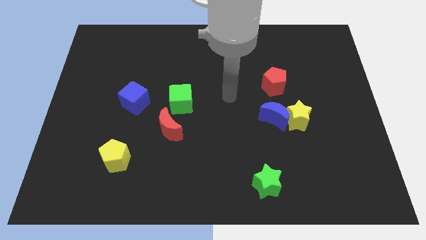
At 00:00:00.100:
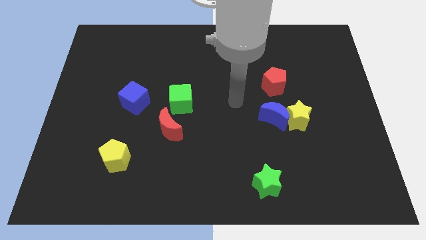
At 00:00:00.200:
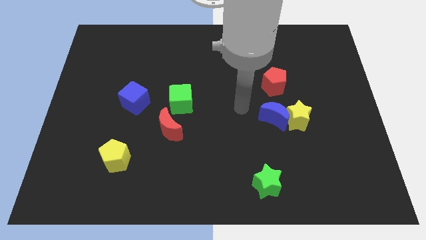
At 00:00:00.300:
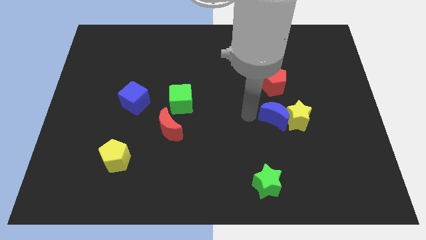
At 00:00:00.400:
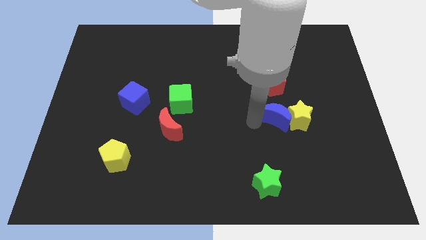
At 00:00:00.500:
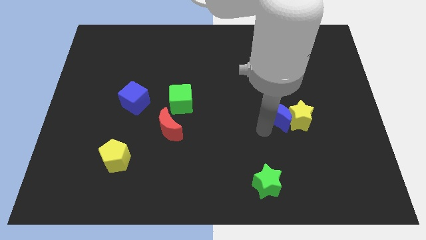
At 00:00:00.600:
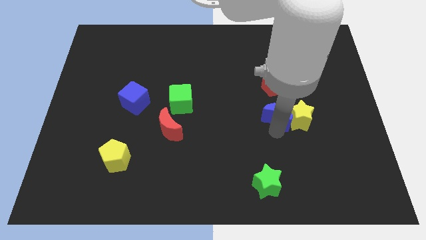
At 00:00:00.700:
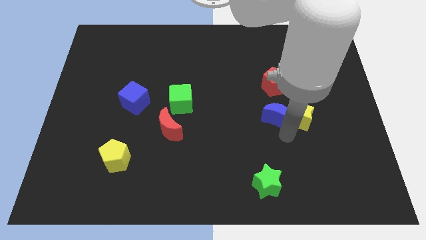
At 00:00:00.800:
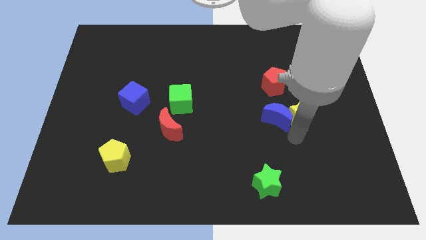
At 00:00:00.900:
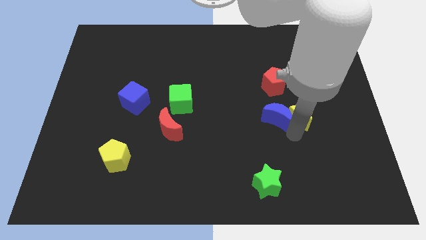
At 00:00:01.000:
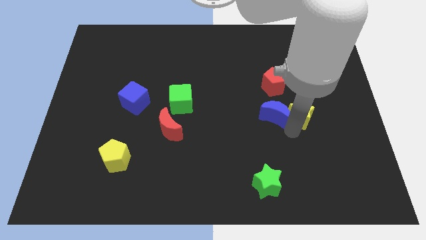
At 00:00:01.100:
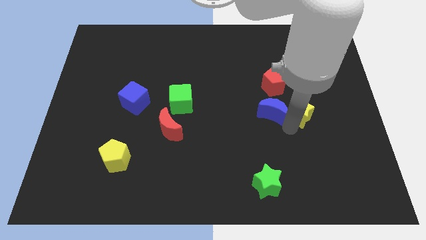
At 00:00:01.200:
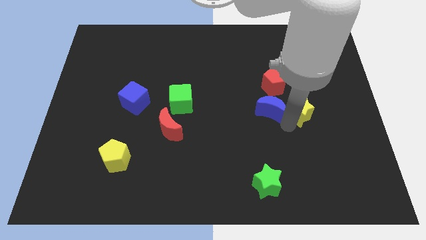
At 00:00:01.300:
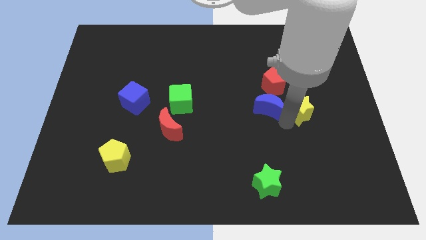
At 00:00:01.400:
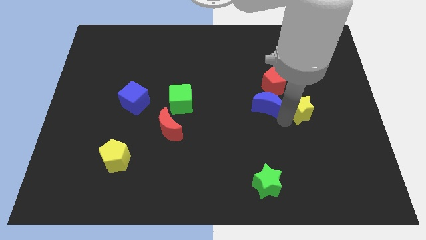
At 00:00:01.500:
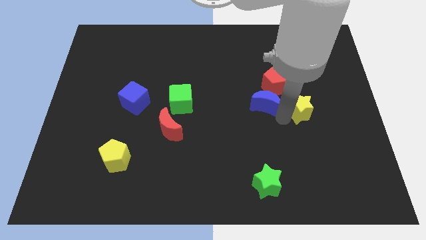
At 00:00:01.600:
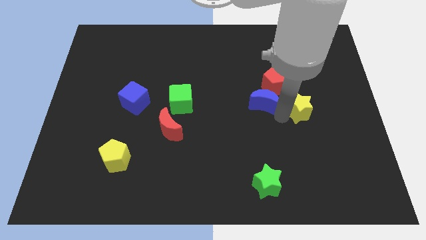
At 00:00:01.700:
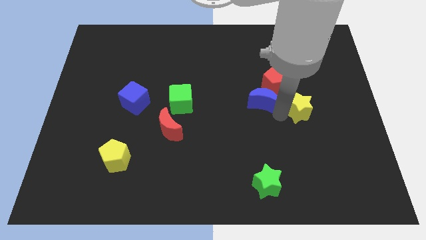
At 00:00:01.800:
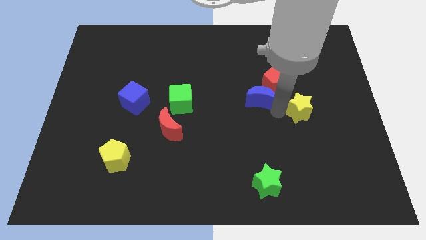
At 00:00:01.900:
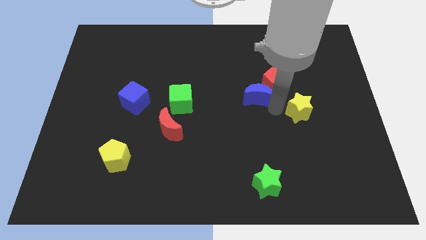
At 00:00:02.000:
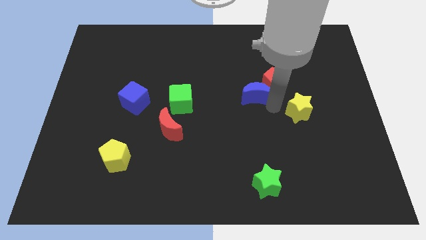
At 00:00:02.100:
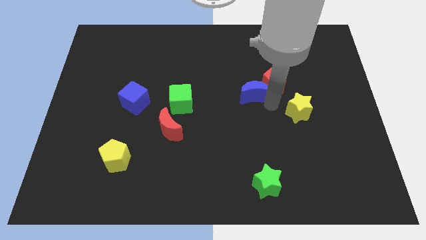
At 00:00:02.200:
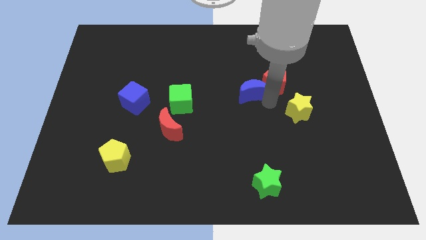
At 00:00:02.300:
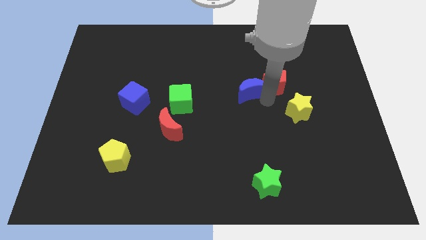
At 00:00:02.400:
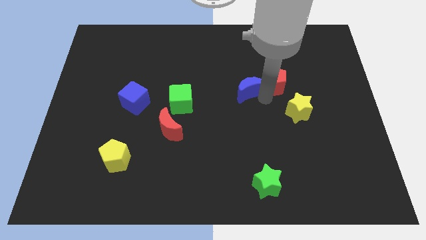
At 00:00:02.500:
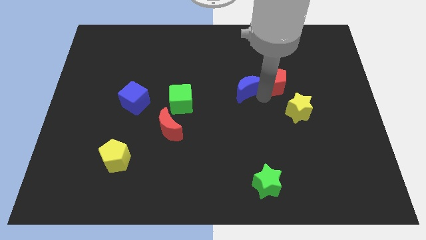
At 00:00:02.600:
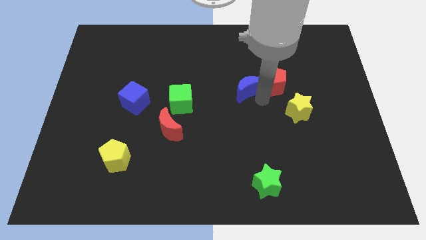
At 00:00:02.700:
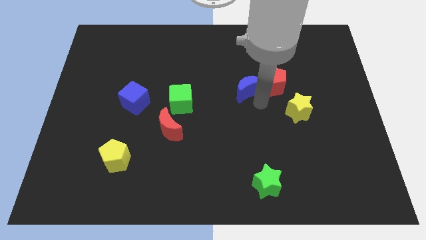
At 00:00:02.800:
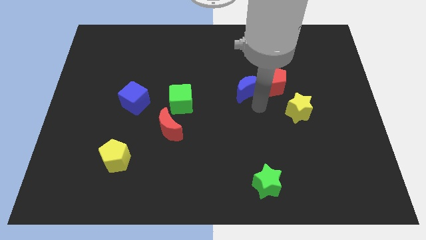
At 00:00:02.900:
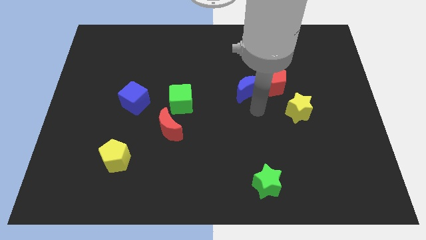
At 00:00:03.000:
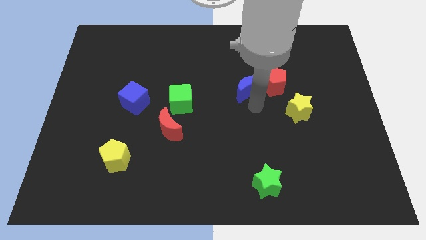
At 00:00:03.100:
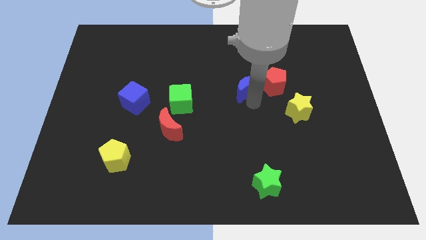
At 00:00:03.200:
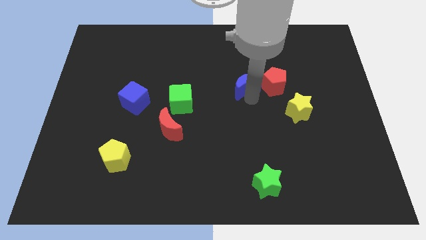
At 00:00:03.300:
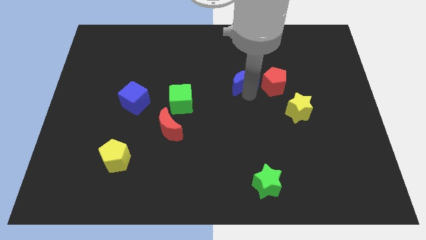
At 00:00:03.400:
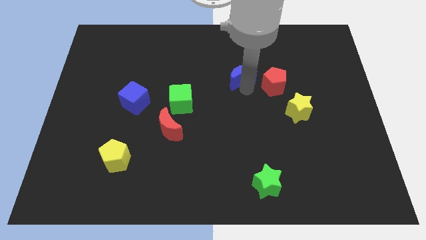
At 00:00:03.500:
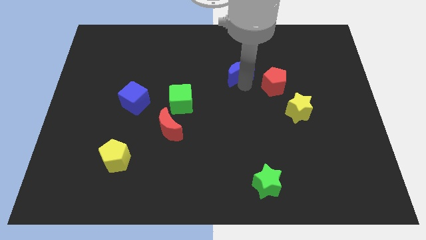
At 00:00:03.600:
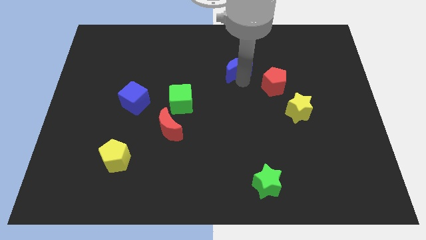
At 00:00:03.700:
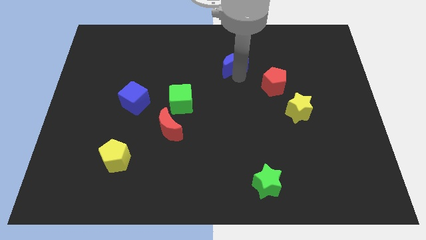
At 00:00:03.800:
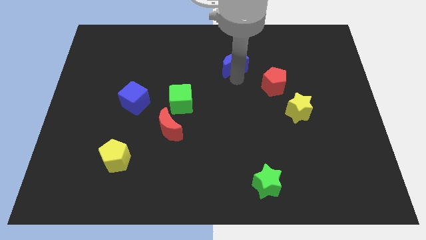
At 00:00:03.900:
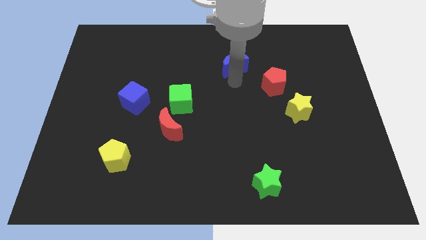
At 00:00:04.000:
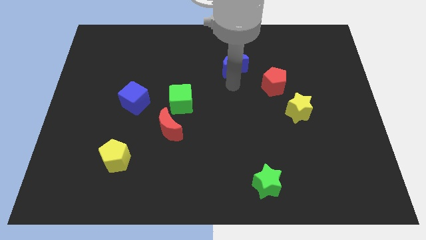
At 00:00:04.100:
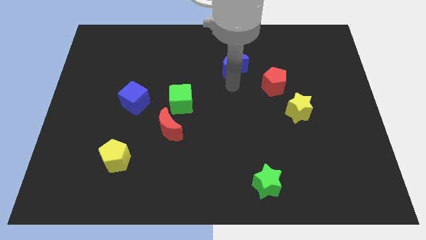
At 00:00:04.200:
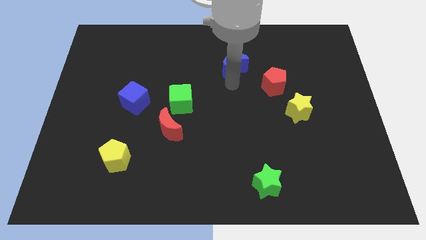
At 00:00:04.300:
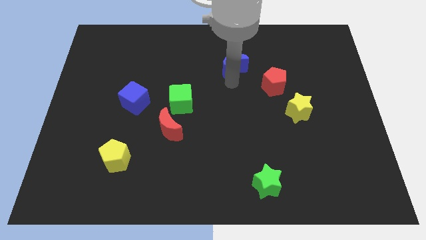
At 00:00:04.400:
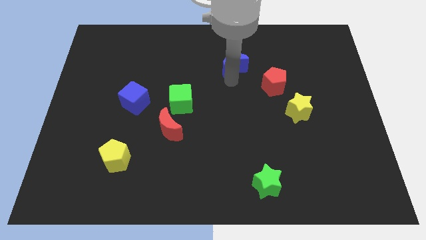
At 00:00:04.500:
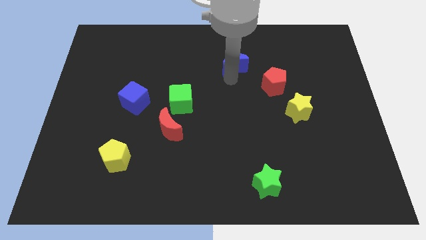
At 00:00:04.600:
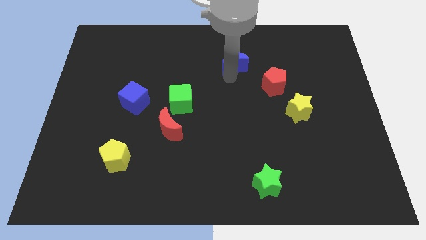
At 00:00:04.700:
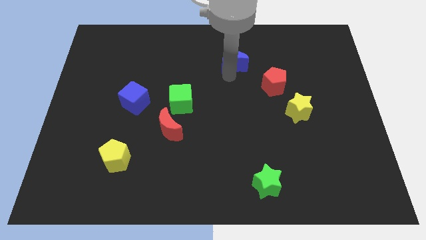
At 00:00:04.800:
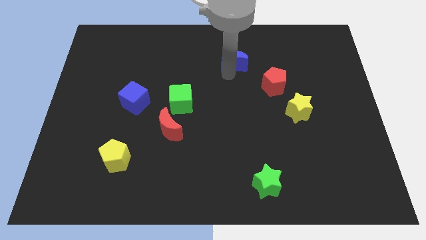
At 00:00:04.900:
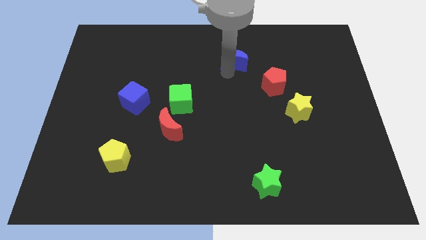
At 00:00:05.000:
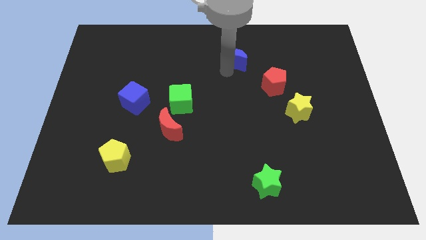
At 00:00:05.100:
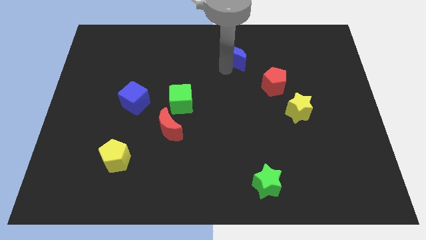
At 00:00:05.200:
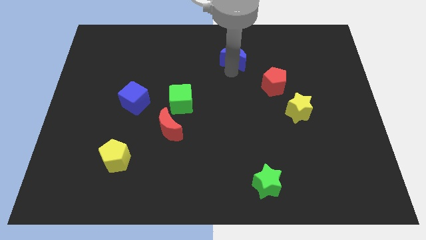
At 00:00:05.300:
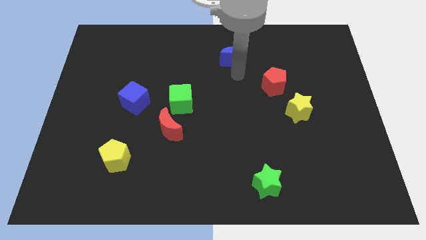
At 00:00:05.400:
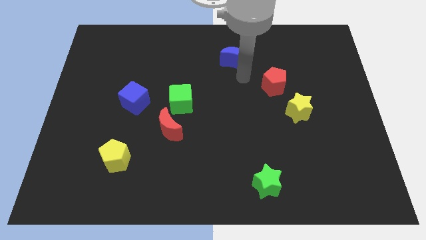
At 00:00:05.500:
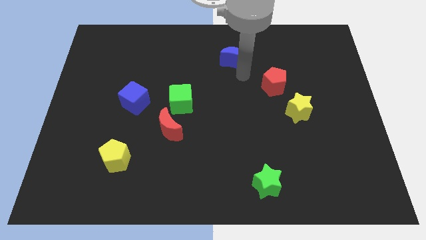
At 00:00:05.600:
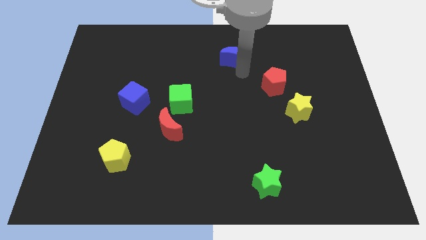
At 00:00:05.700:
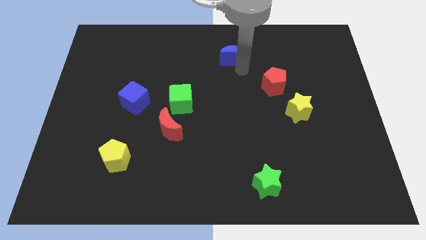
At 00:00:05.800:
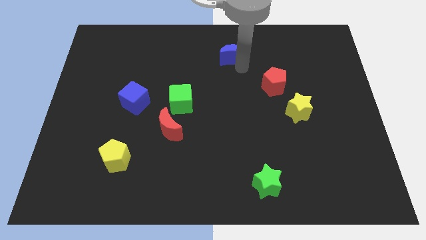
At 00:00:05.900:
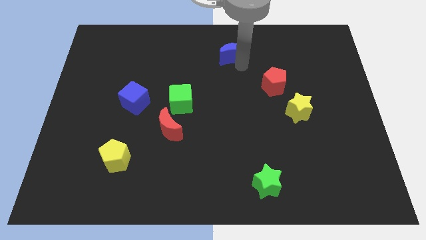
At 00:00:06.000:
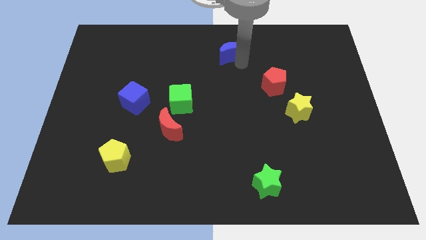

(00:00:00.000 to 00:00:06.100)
move the blue moon to the towards your base

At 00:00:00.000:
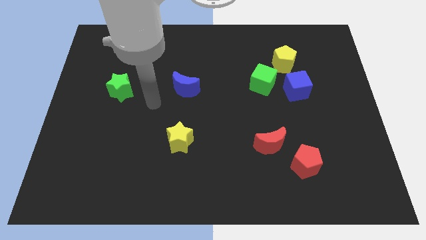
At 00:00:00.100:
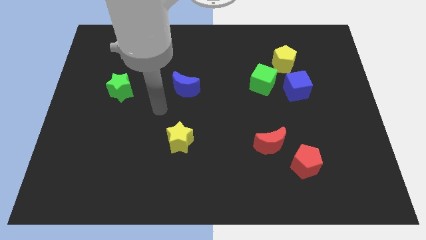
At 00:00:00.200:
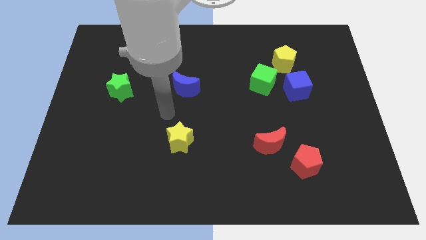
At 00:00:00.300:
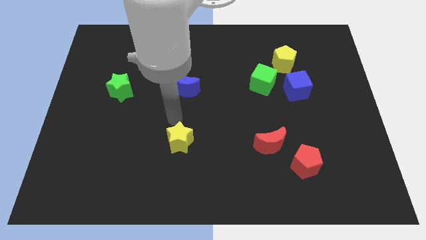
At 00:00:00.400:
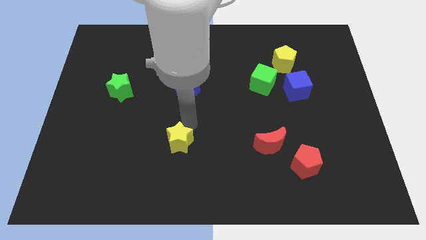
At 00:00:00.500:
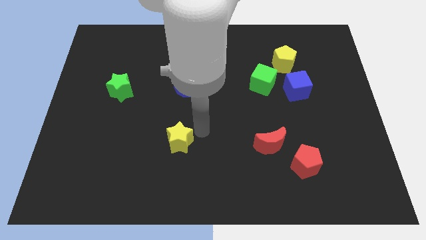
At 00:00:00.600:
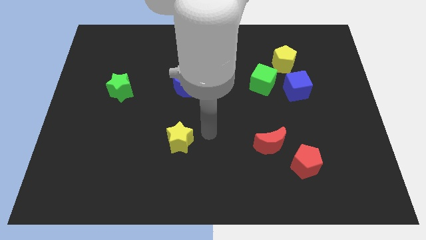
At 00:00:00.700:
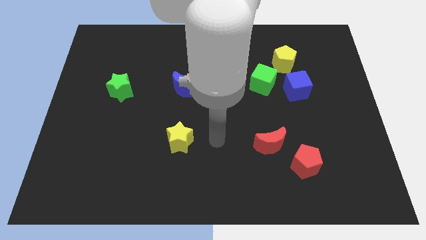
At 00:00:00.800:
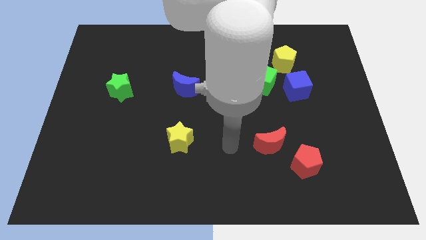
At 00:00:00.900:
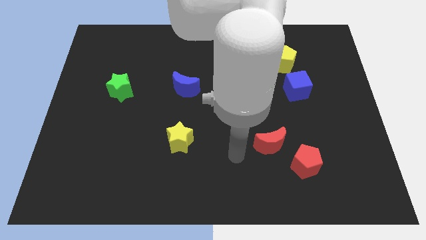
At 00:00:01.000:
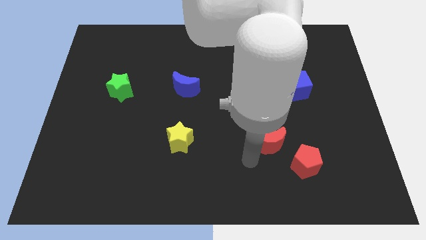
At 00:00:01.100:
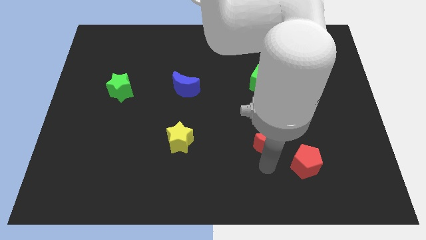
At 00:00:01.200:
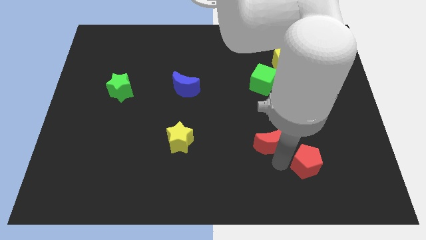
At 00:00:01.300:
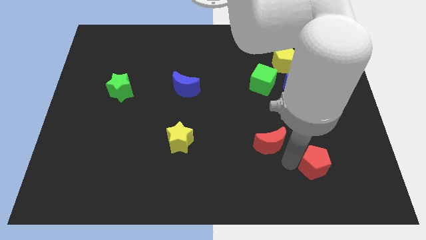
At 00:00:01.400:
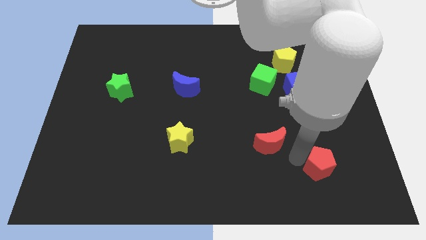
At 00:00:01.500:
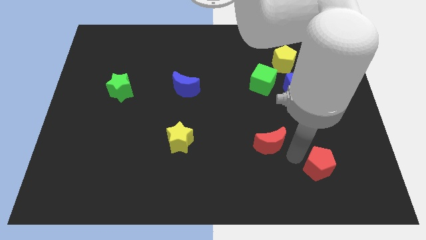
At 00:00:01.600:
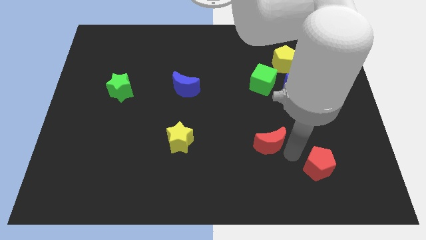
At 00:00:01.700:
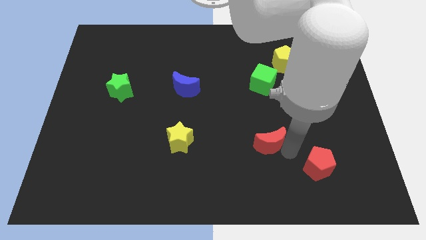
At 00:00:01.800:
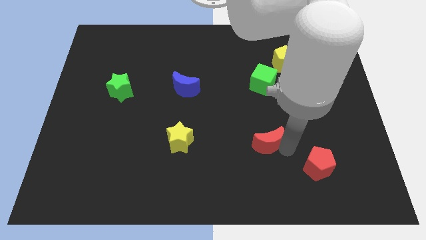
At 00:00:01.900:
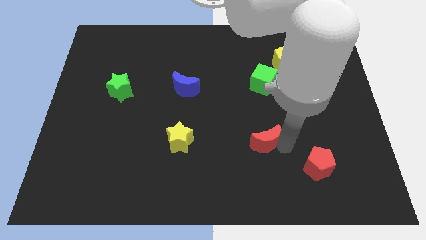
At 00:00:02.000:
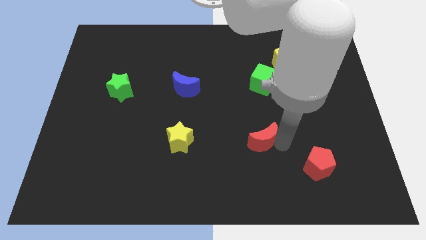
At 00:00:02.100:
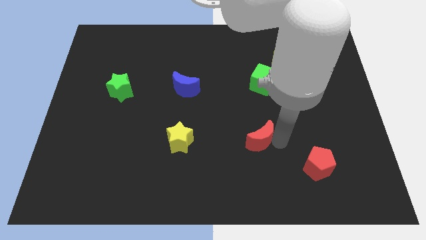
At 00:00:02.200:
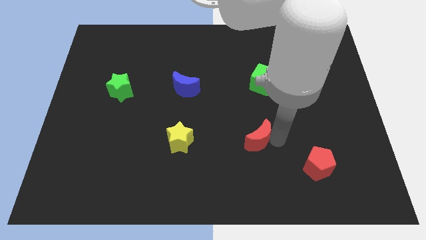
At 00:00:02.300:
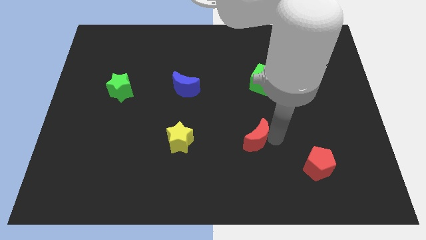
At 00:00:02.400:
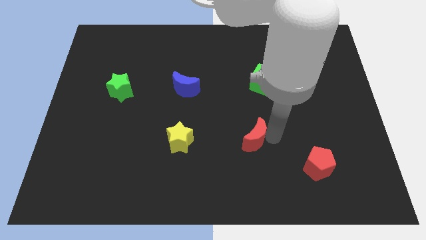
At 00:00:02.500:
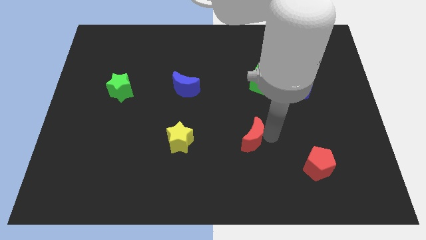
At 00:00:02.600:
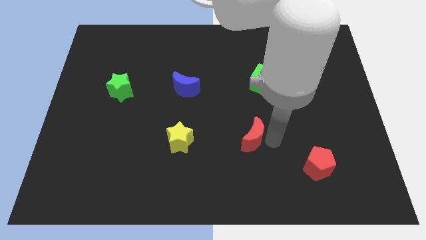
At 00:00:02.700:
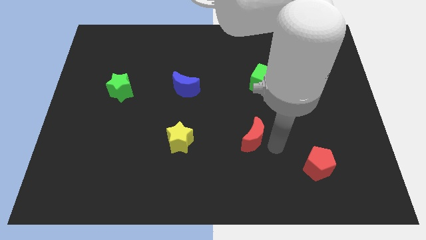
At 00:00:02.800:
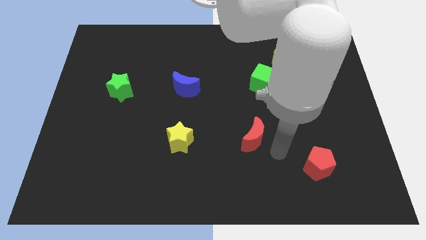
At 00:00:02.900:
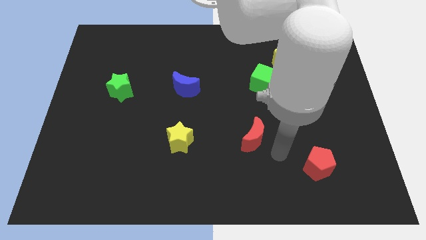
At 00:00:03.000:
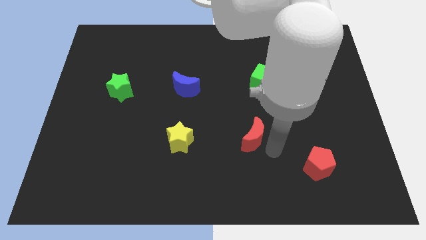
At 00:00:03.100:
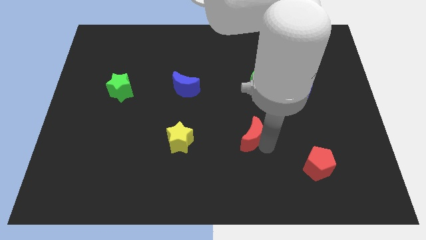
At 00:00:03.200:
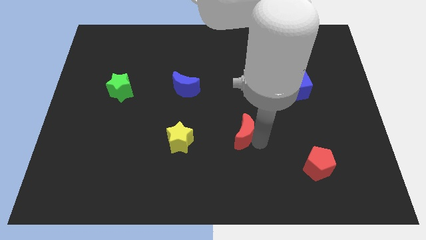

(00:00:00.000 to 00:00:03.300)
push the red moon to the middle
